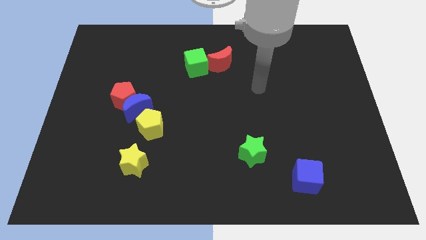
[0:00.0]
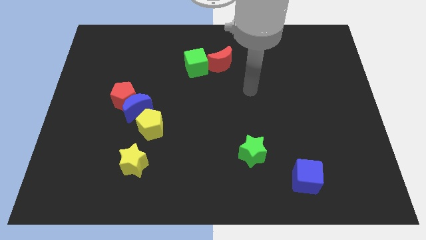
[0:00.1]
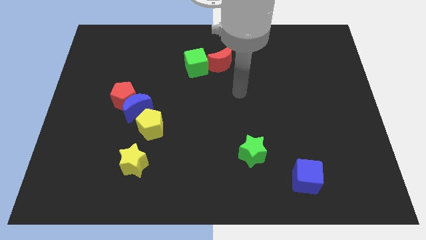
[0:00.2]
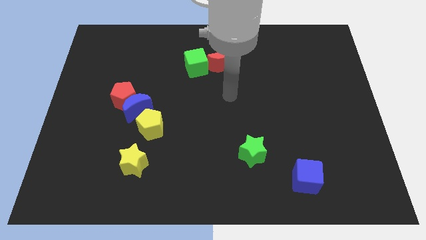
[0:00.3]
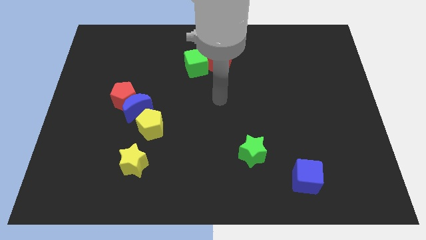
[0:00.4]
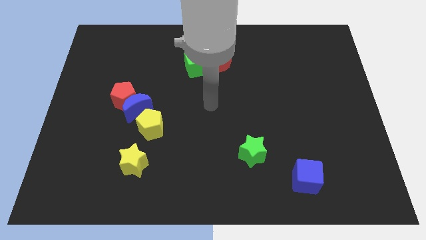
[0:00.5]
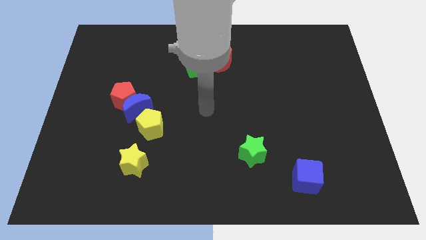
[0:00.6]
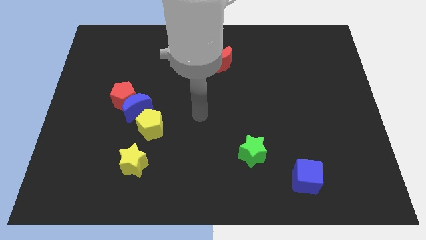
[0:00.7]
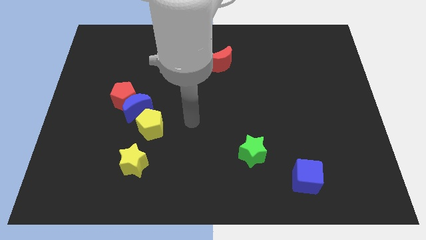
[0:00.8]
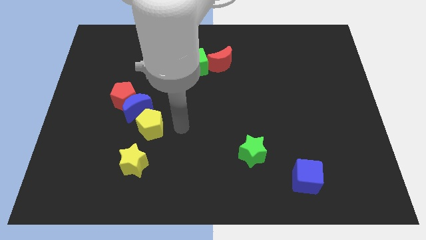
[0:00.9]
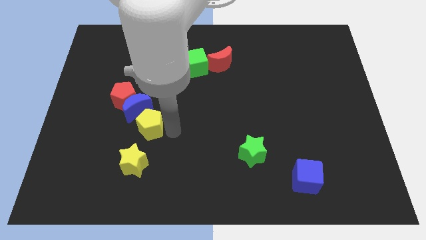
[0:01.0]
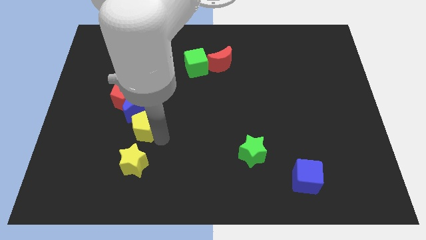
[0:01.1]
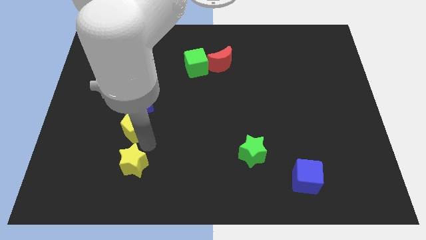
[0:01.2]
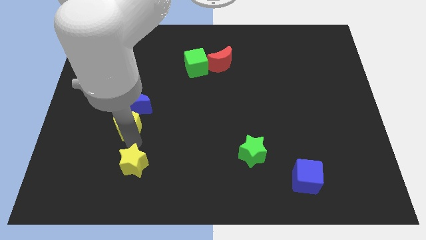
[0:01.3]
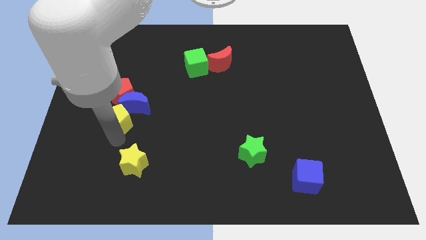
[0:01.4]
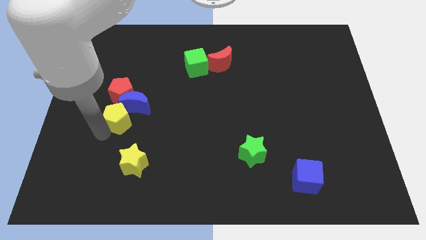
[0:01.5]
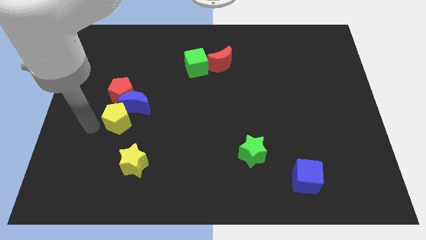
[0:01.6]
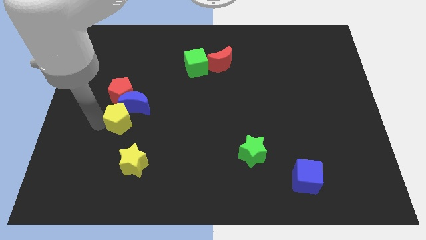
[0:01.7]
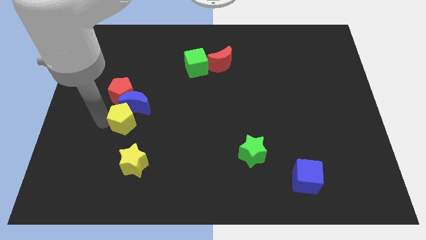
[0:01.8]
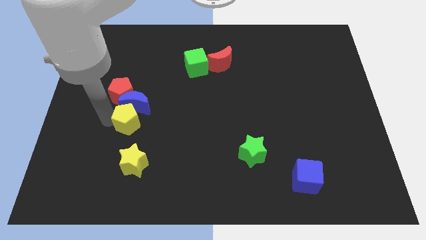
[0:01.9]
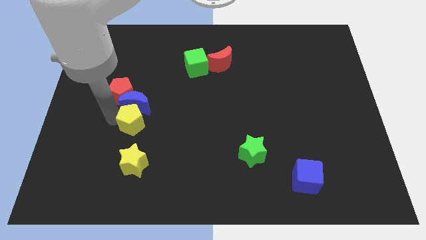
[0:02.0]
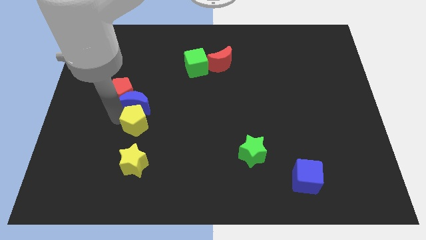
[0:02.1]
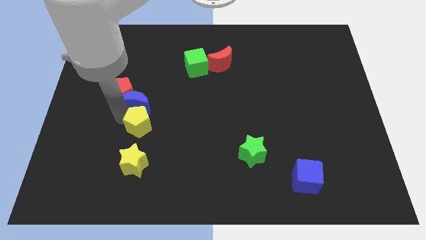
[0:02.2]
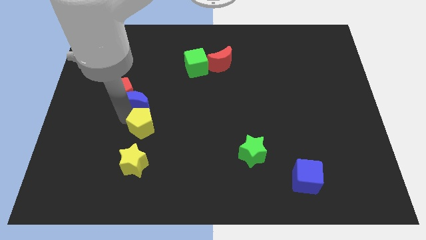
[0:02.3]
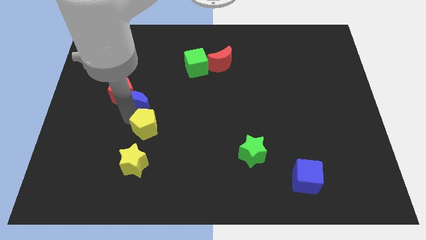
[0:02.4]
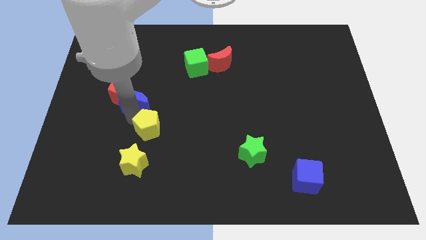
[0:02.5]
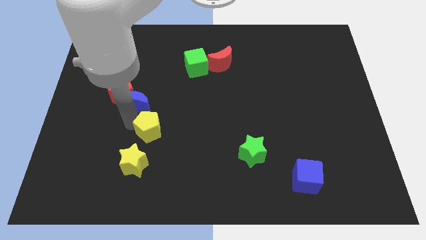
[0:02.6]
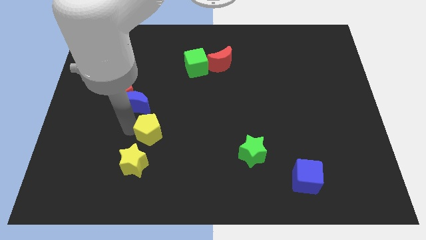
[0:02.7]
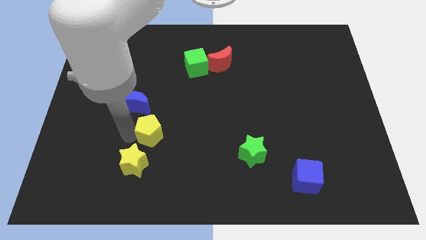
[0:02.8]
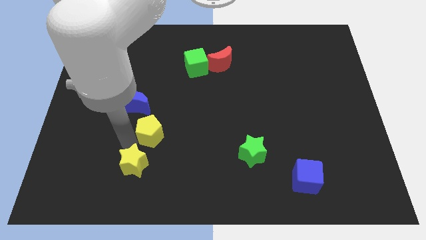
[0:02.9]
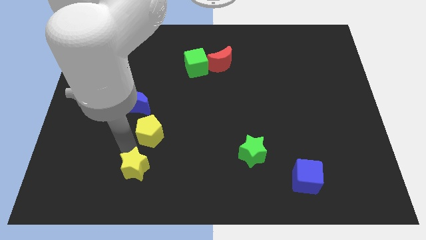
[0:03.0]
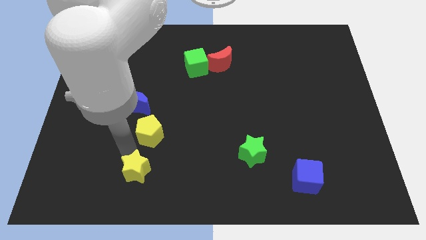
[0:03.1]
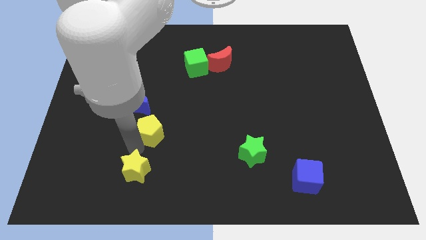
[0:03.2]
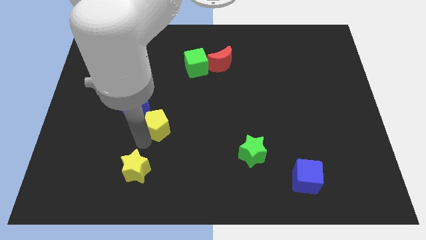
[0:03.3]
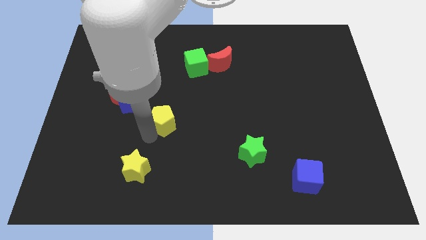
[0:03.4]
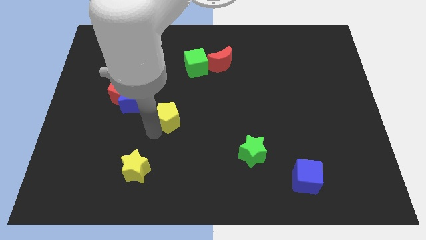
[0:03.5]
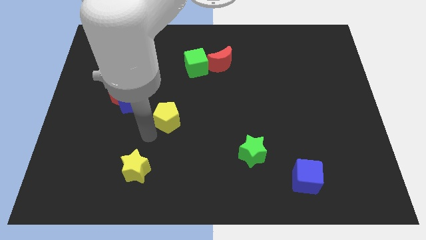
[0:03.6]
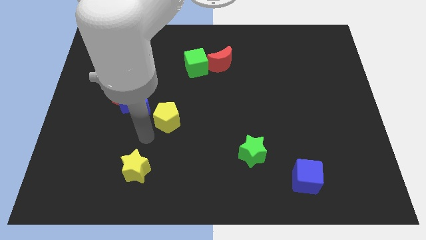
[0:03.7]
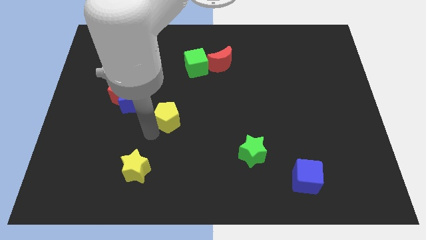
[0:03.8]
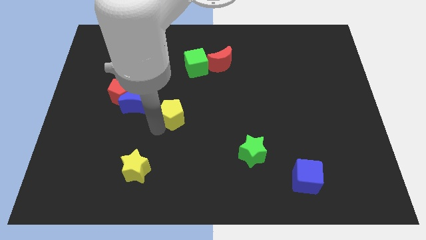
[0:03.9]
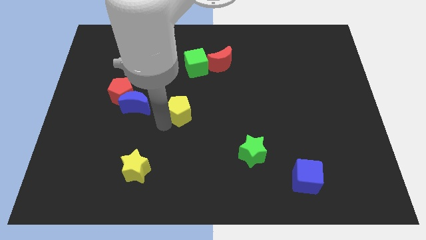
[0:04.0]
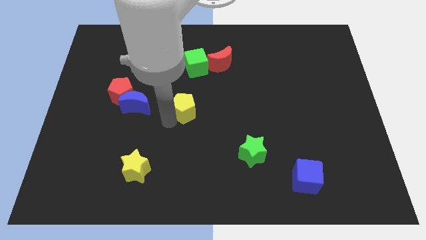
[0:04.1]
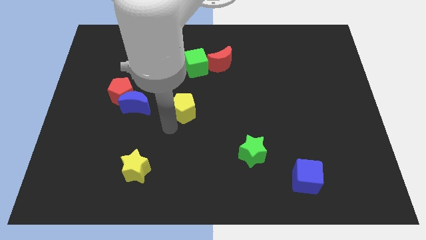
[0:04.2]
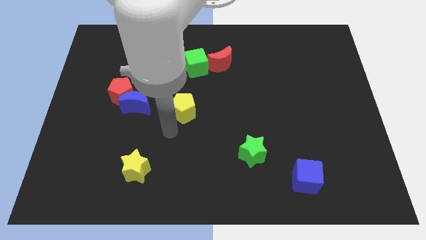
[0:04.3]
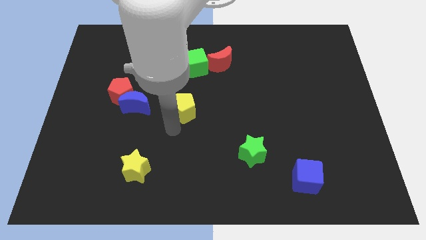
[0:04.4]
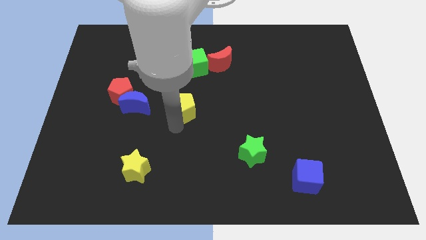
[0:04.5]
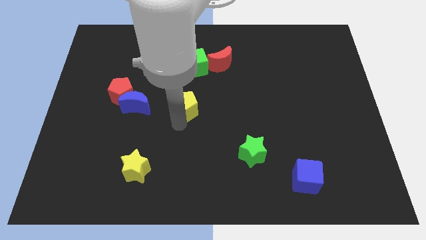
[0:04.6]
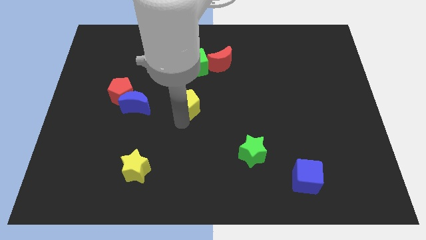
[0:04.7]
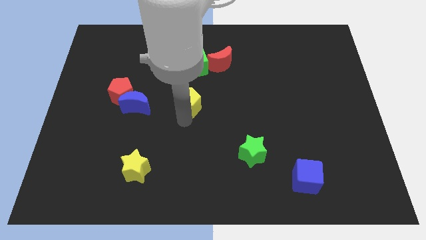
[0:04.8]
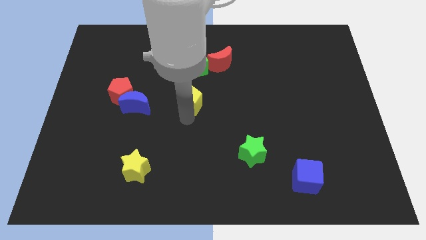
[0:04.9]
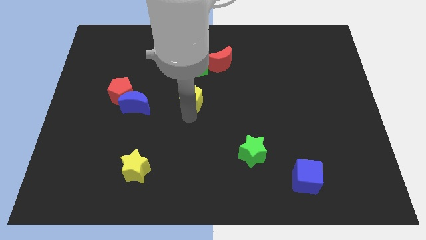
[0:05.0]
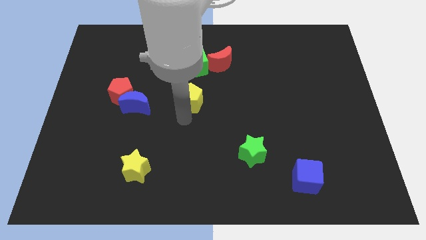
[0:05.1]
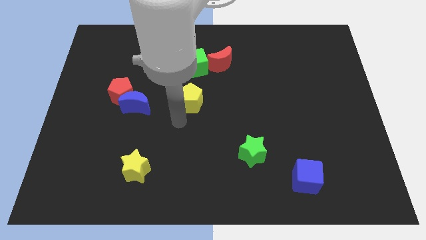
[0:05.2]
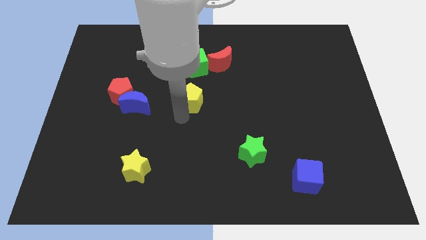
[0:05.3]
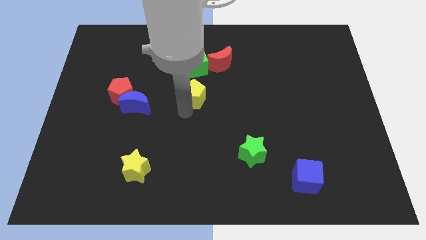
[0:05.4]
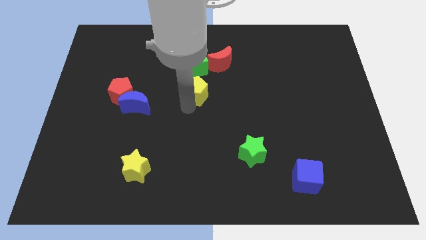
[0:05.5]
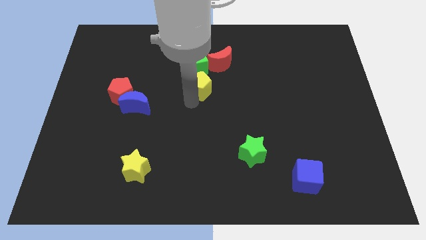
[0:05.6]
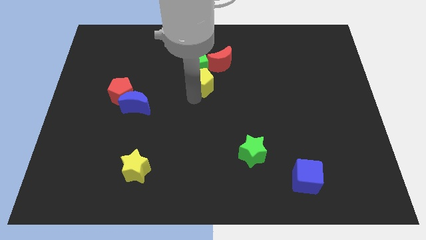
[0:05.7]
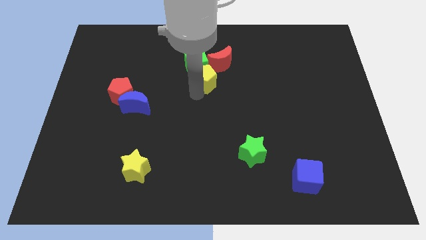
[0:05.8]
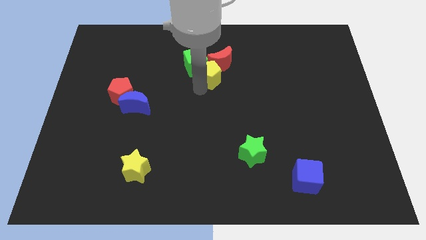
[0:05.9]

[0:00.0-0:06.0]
slide the yellow pentagon next to the red moon

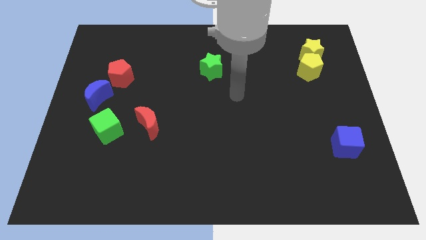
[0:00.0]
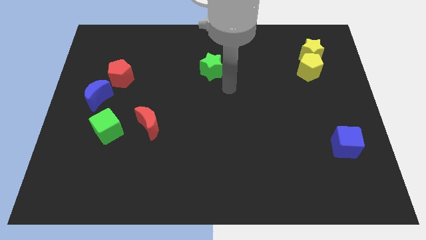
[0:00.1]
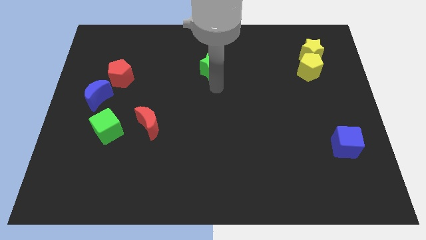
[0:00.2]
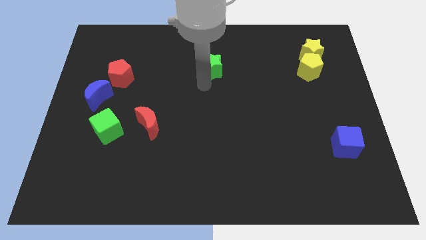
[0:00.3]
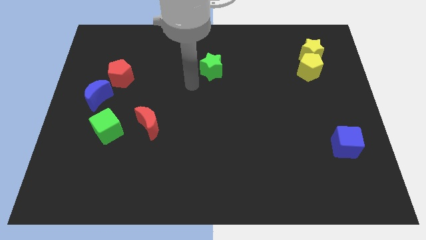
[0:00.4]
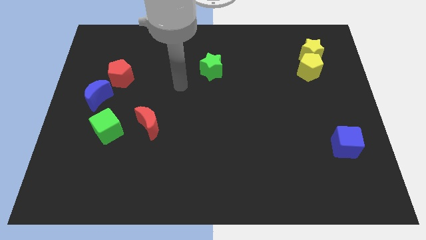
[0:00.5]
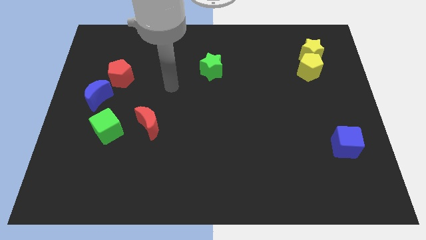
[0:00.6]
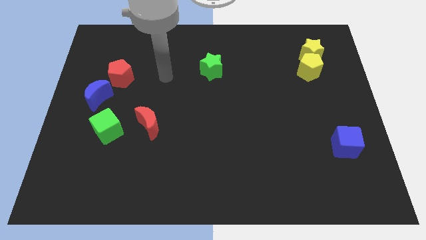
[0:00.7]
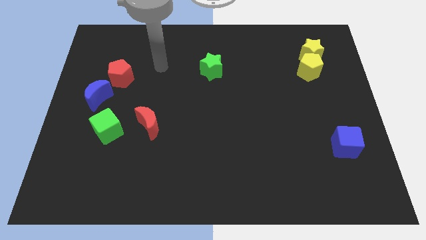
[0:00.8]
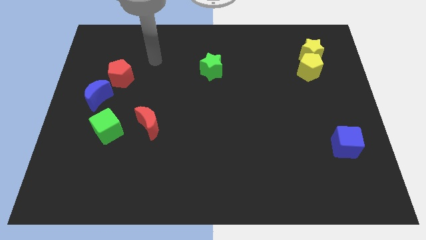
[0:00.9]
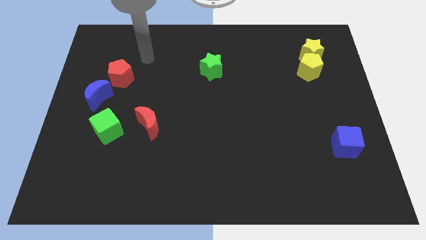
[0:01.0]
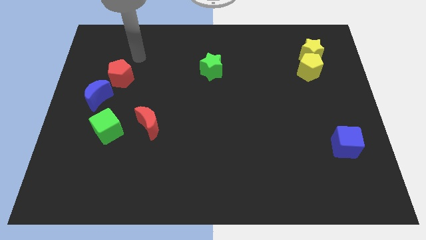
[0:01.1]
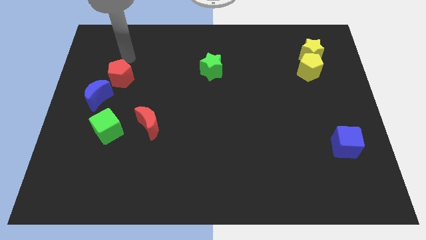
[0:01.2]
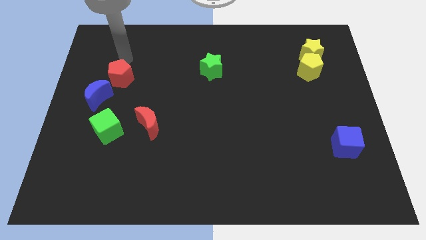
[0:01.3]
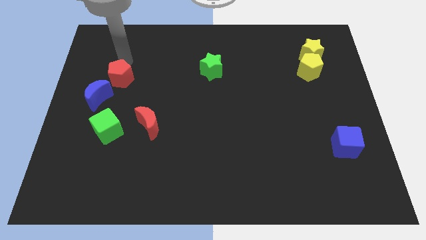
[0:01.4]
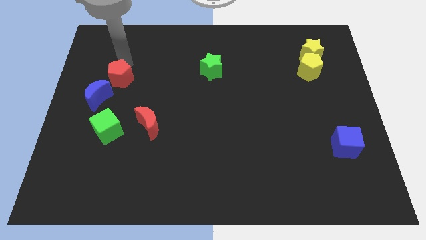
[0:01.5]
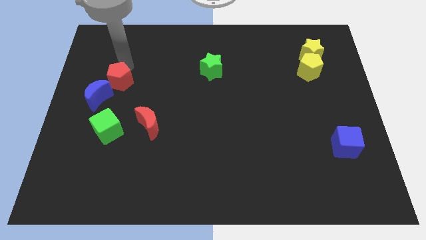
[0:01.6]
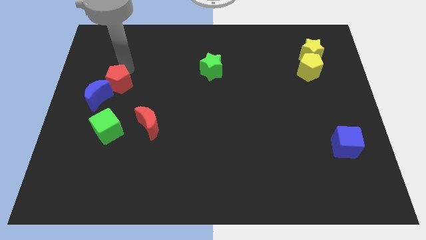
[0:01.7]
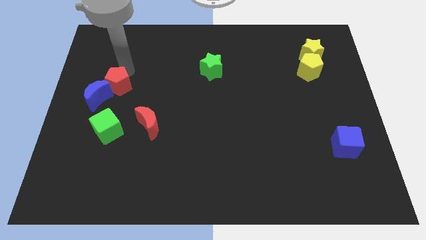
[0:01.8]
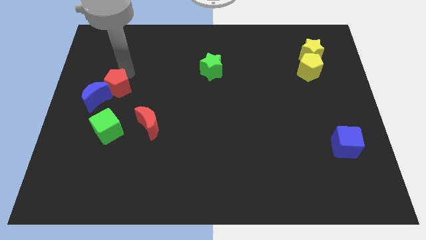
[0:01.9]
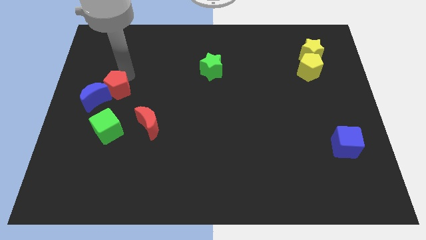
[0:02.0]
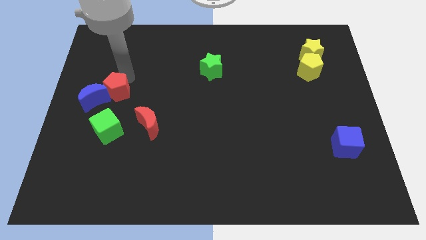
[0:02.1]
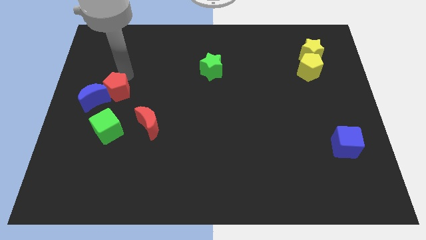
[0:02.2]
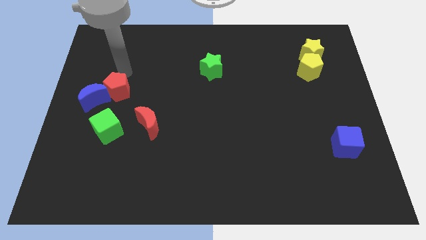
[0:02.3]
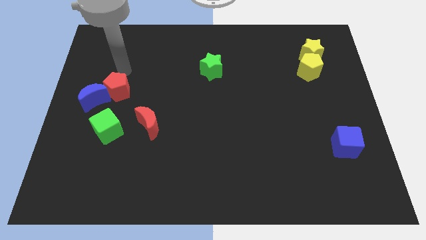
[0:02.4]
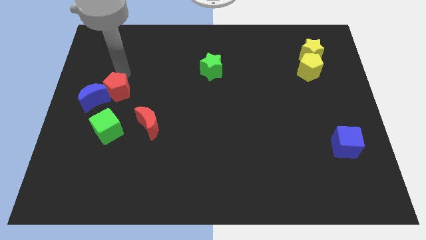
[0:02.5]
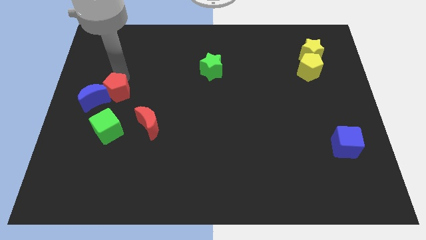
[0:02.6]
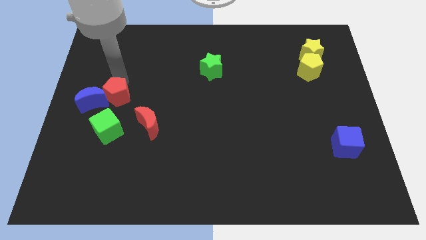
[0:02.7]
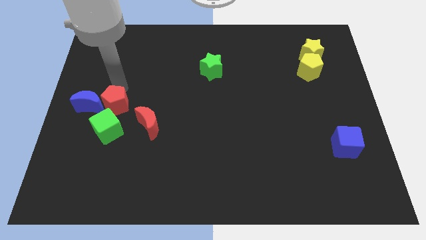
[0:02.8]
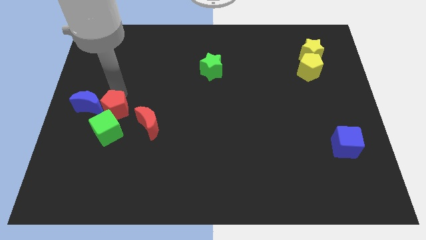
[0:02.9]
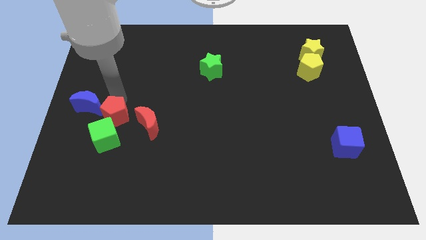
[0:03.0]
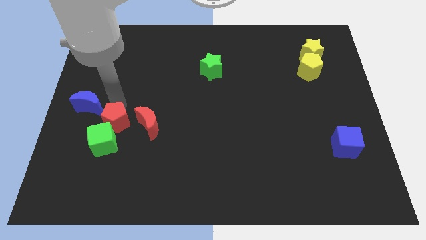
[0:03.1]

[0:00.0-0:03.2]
move the red pentagon close to the green cube
